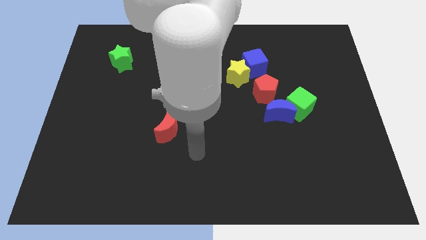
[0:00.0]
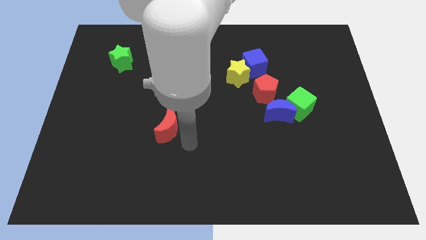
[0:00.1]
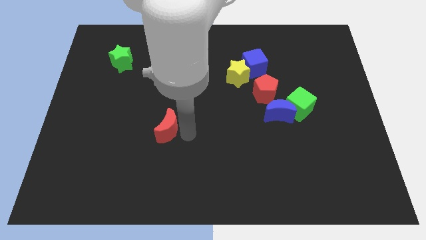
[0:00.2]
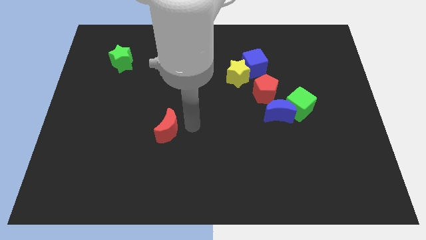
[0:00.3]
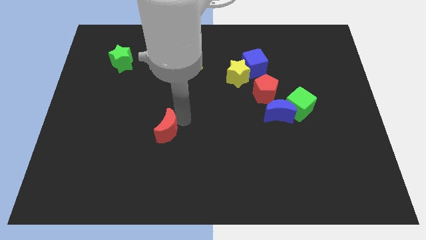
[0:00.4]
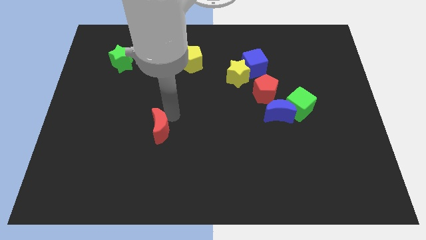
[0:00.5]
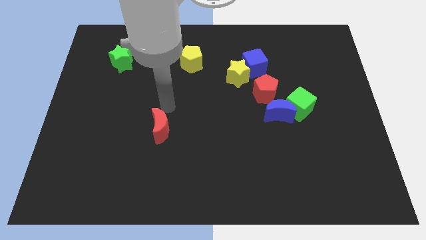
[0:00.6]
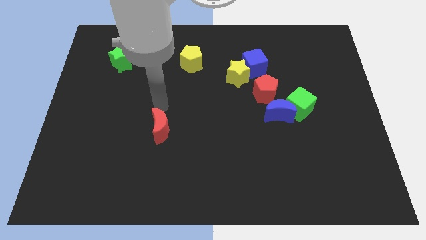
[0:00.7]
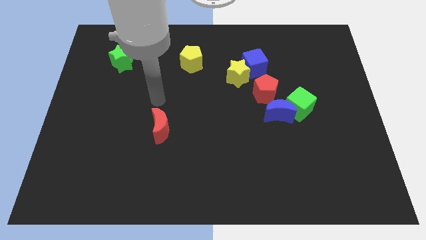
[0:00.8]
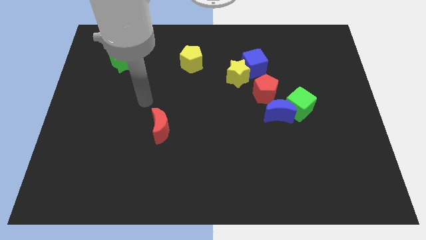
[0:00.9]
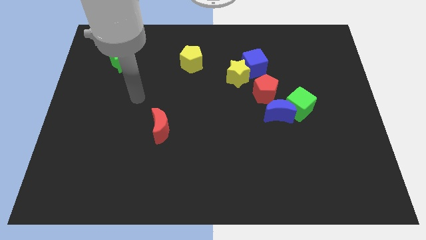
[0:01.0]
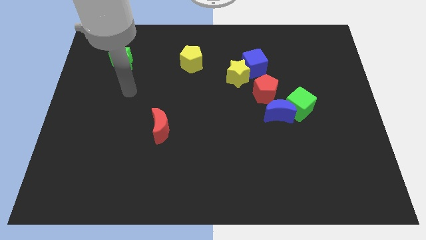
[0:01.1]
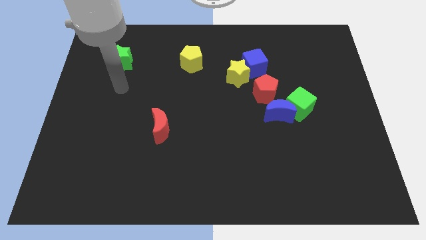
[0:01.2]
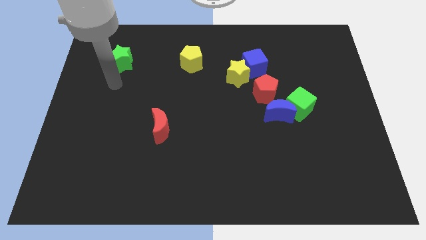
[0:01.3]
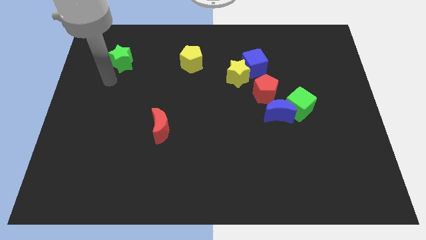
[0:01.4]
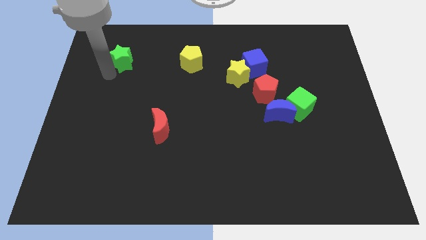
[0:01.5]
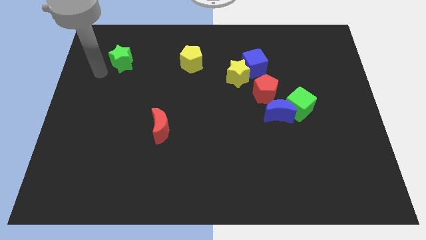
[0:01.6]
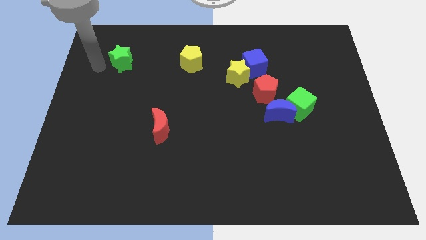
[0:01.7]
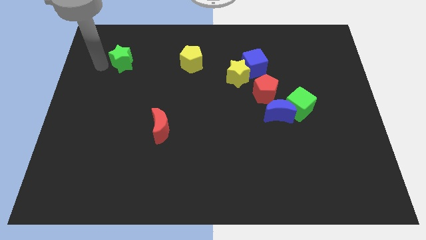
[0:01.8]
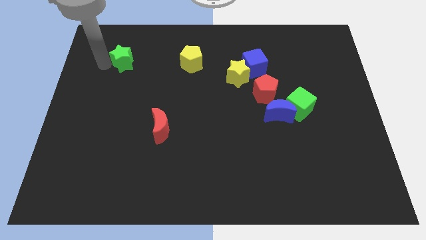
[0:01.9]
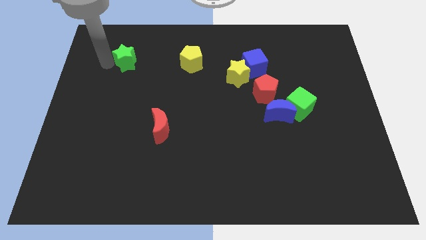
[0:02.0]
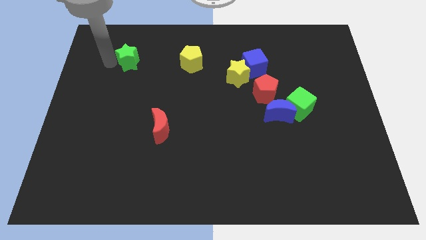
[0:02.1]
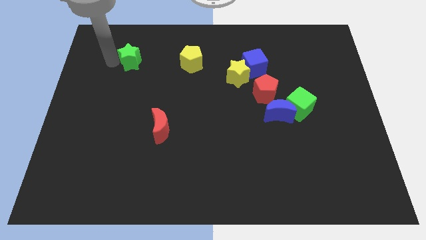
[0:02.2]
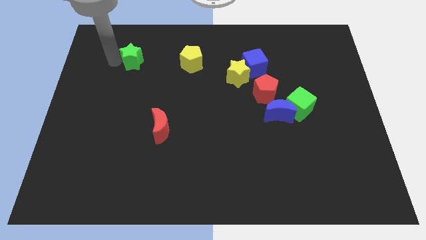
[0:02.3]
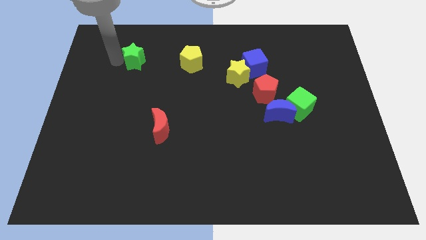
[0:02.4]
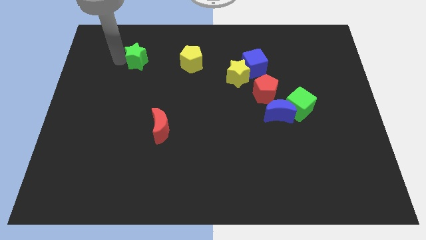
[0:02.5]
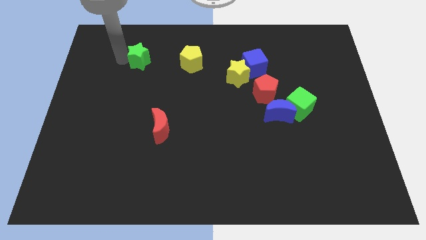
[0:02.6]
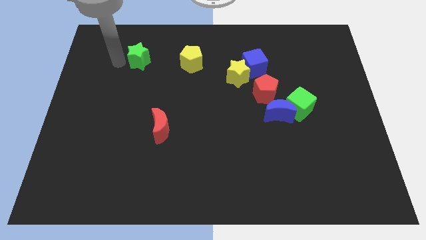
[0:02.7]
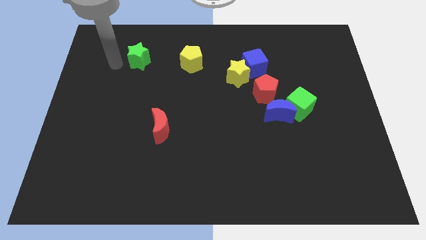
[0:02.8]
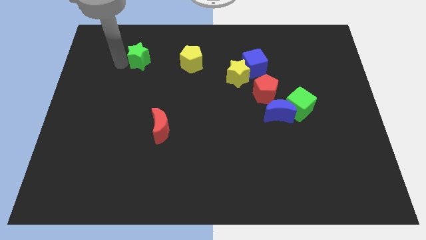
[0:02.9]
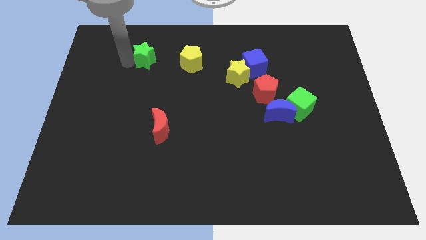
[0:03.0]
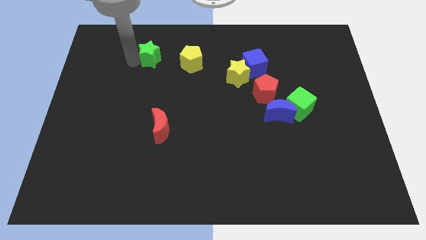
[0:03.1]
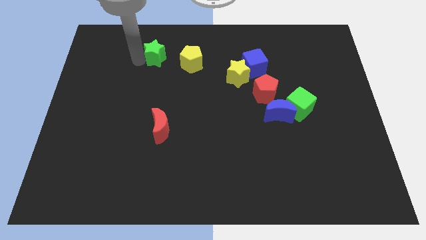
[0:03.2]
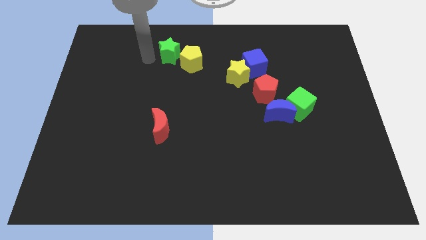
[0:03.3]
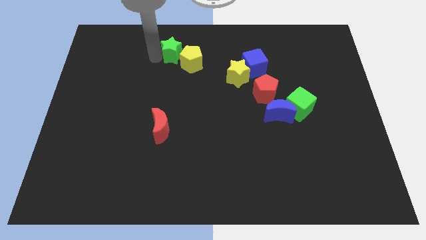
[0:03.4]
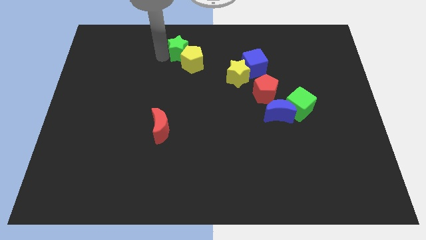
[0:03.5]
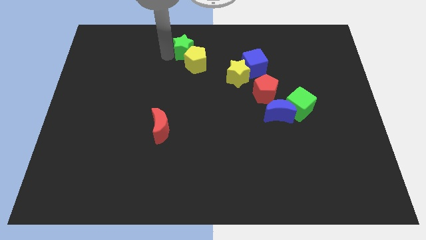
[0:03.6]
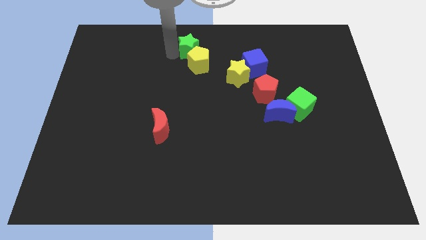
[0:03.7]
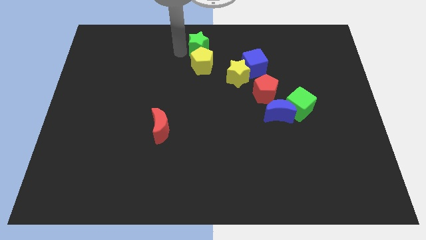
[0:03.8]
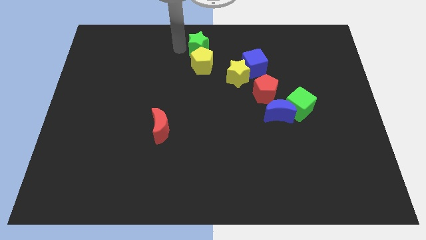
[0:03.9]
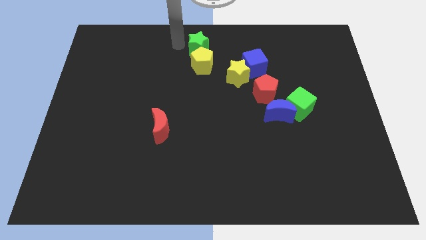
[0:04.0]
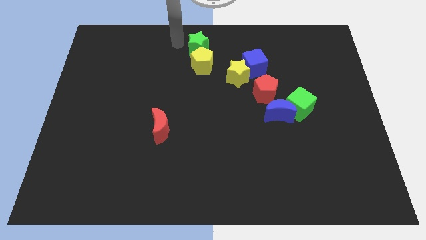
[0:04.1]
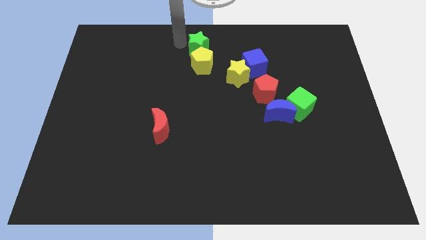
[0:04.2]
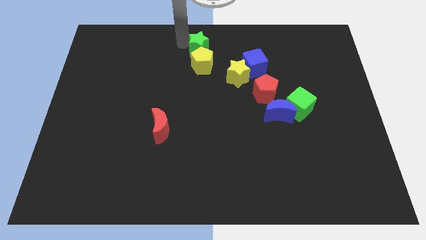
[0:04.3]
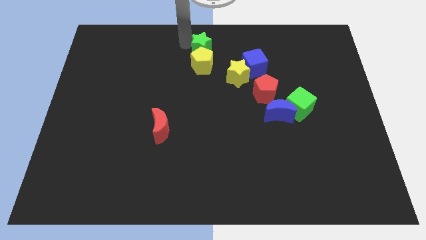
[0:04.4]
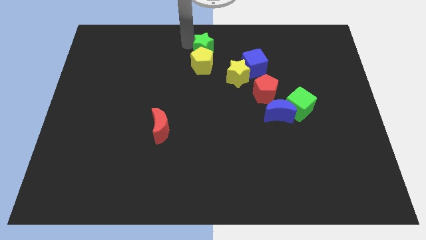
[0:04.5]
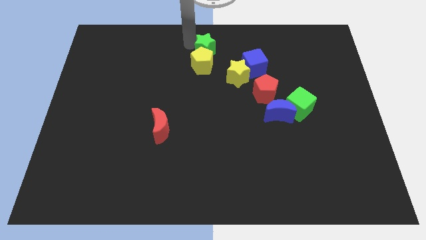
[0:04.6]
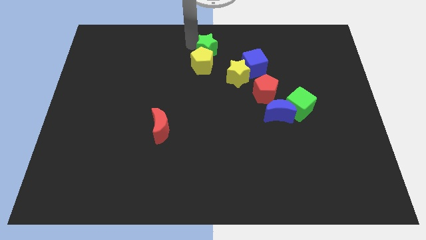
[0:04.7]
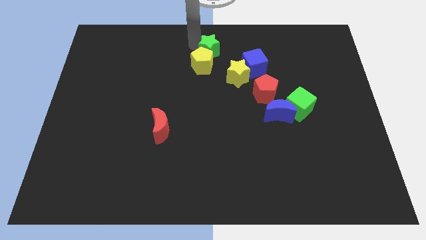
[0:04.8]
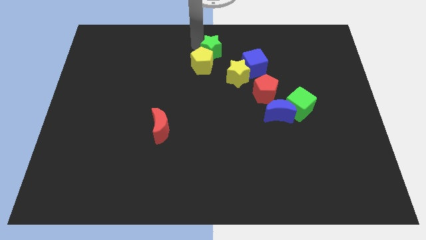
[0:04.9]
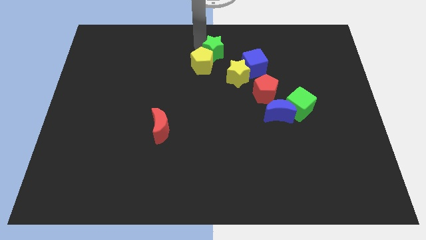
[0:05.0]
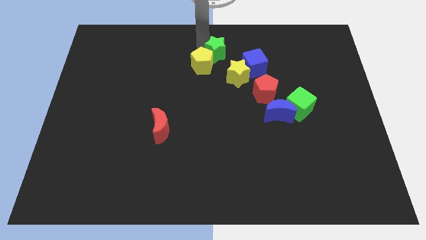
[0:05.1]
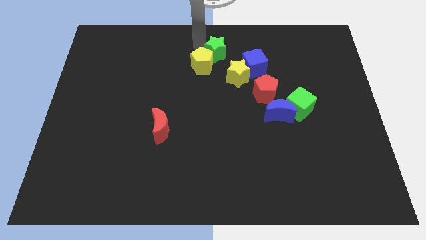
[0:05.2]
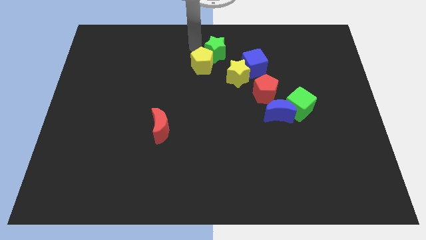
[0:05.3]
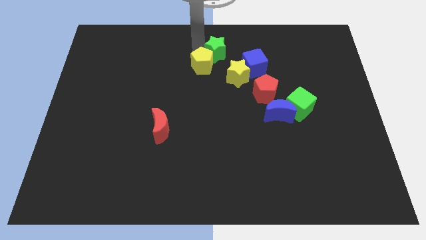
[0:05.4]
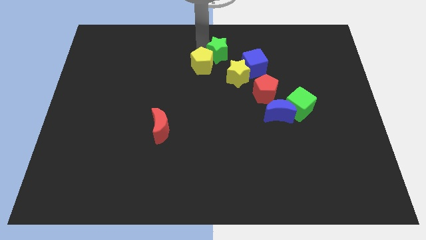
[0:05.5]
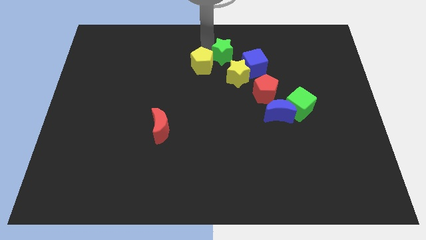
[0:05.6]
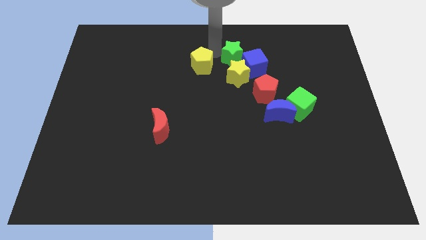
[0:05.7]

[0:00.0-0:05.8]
slide the green star to the blue cube

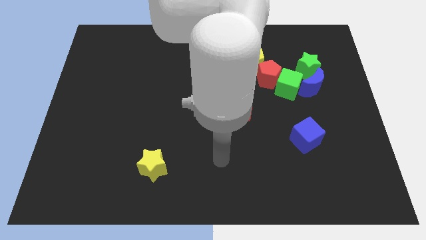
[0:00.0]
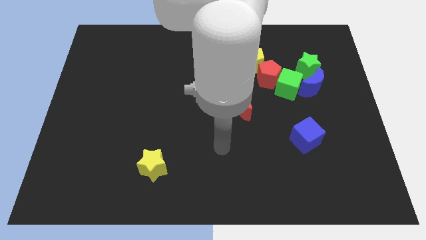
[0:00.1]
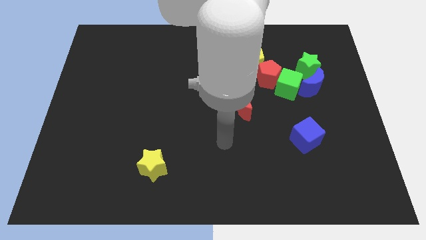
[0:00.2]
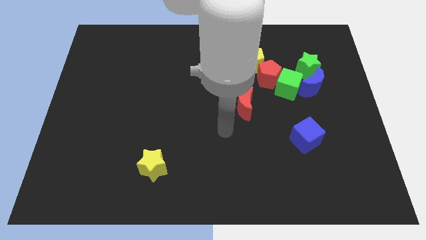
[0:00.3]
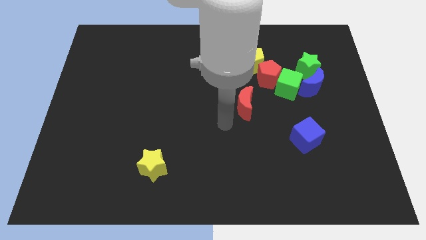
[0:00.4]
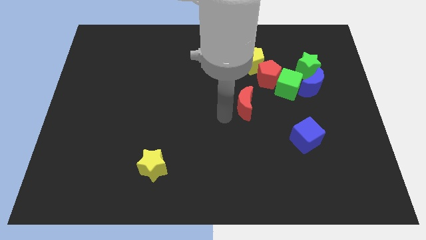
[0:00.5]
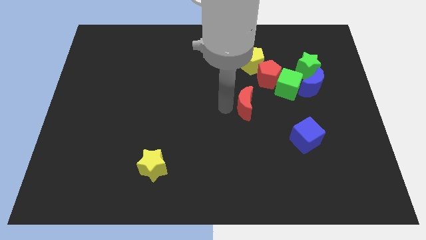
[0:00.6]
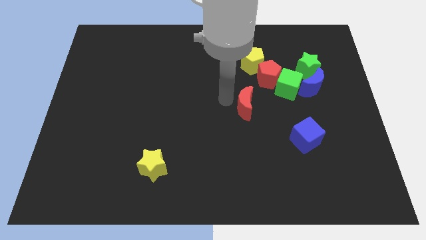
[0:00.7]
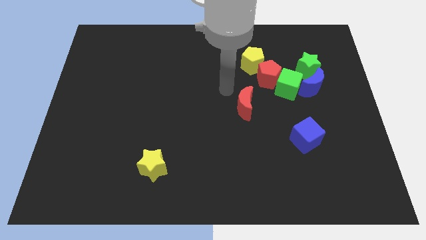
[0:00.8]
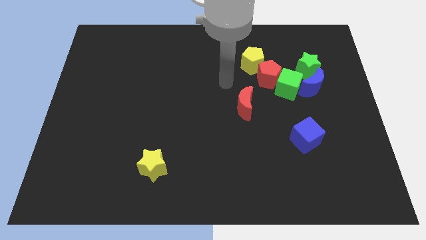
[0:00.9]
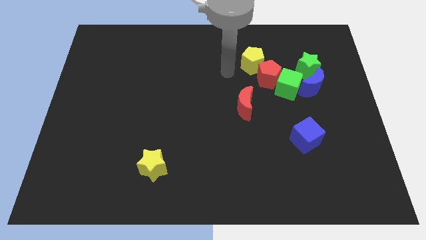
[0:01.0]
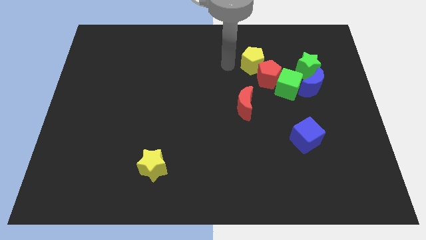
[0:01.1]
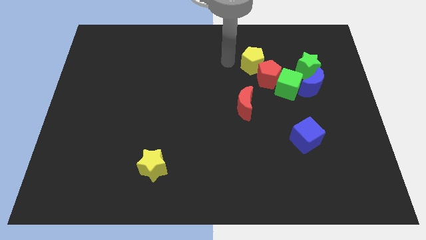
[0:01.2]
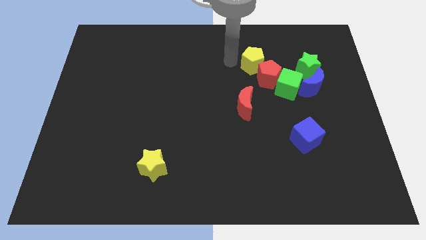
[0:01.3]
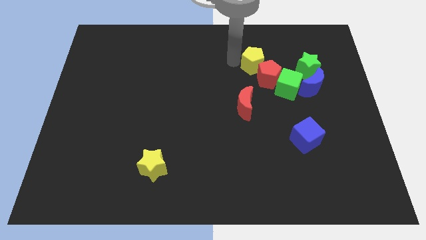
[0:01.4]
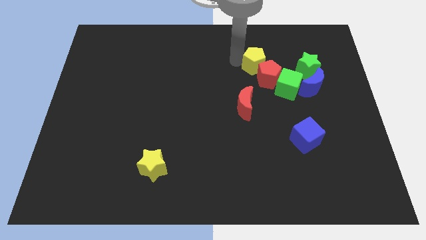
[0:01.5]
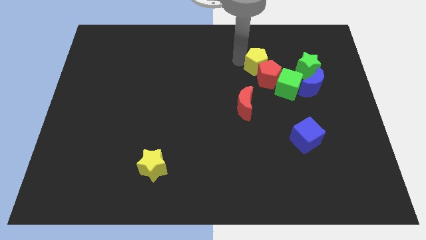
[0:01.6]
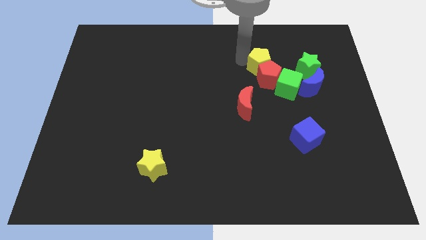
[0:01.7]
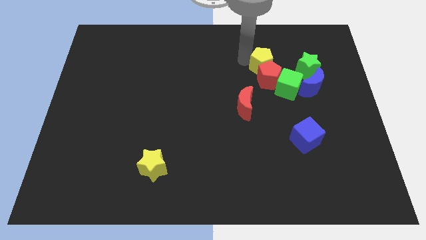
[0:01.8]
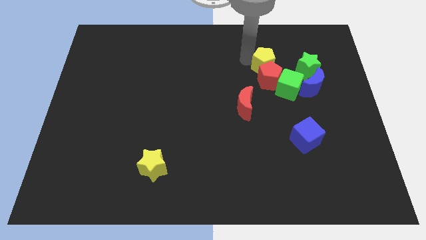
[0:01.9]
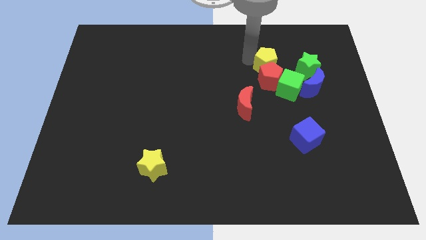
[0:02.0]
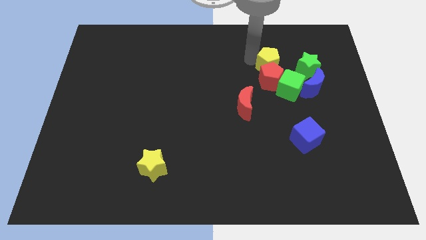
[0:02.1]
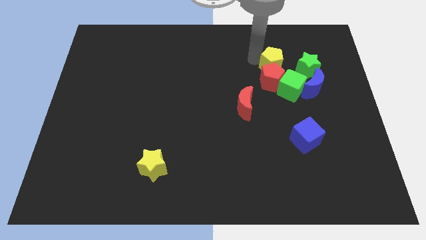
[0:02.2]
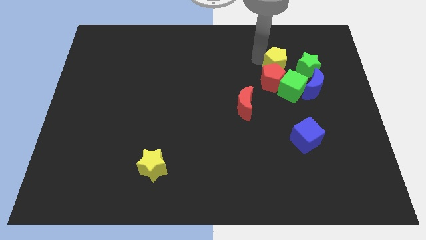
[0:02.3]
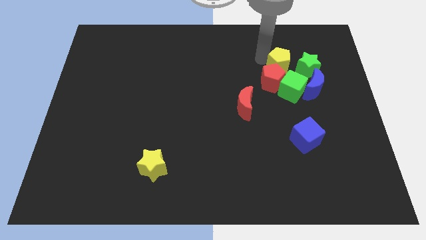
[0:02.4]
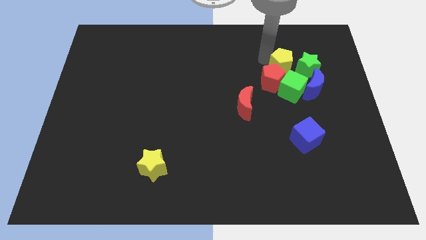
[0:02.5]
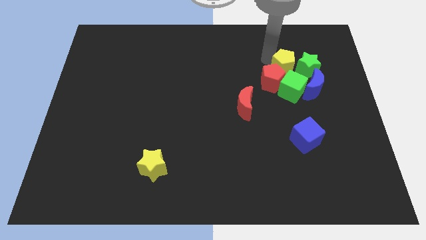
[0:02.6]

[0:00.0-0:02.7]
put the yellow pentagon next to the green star
